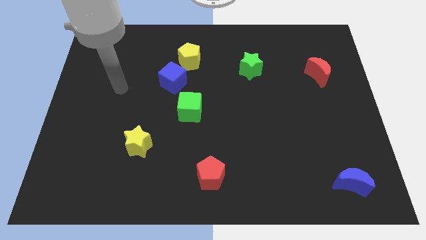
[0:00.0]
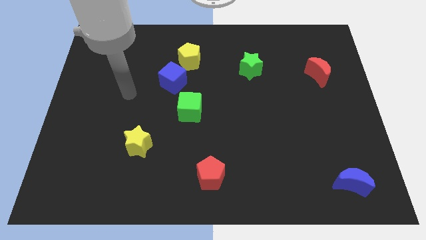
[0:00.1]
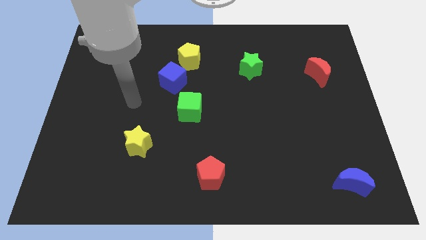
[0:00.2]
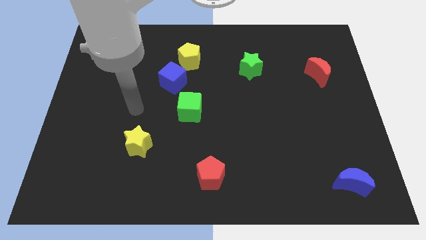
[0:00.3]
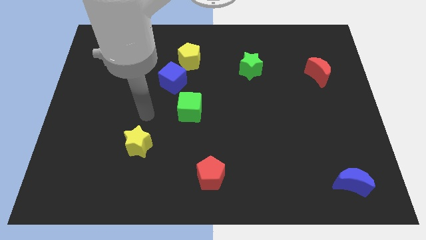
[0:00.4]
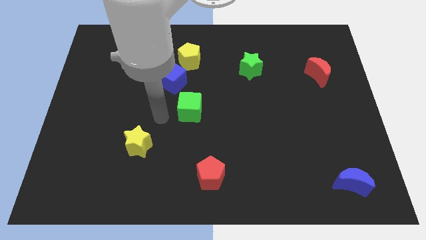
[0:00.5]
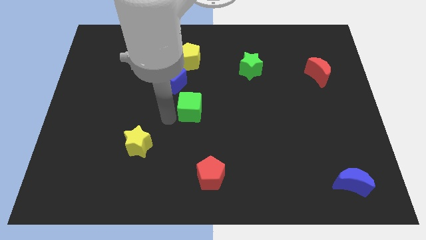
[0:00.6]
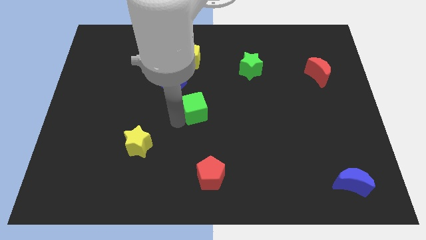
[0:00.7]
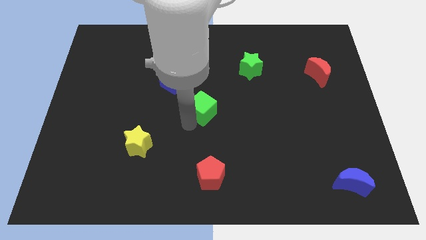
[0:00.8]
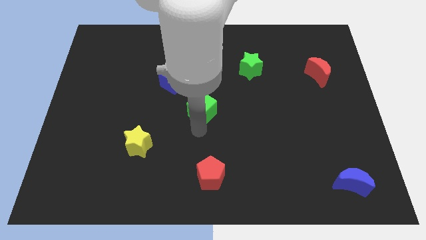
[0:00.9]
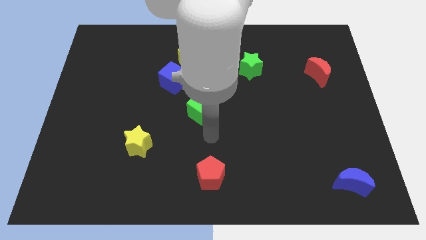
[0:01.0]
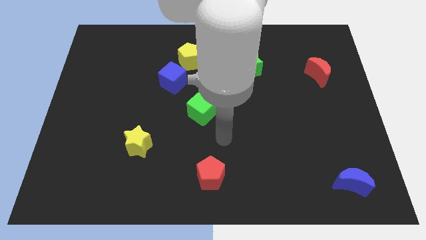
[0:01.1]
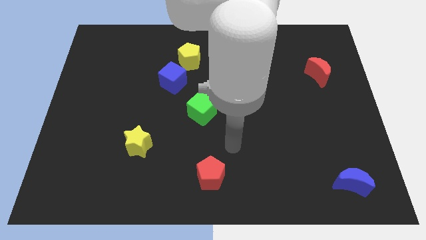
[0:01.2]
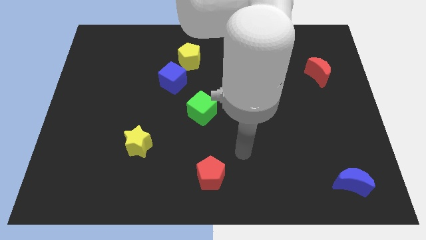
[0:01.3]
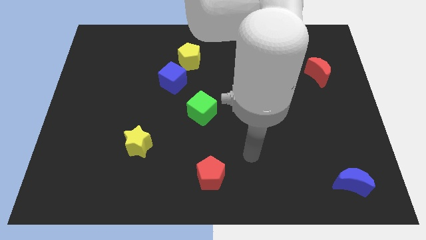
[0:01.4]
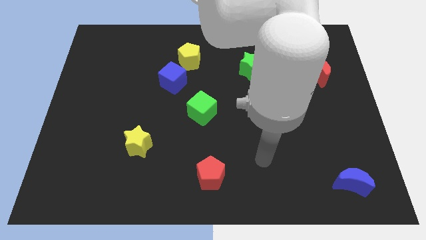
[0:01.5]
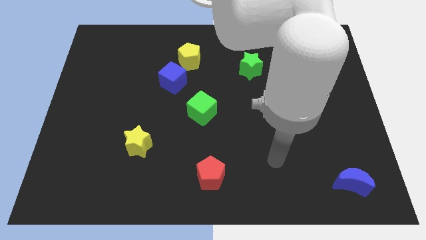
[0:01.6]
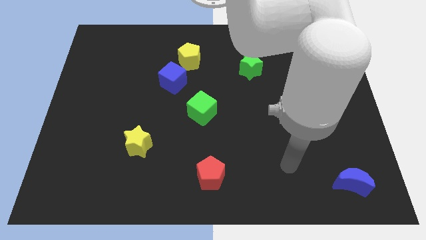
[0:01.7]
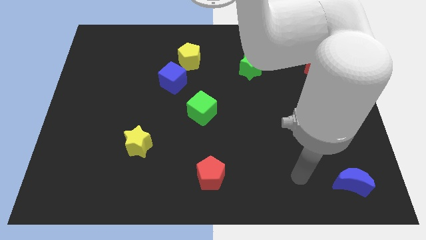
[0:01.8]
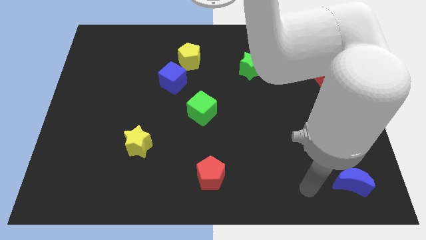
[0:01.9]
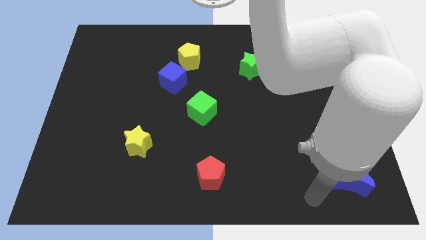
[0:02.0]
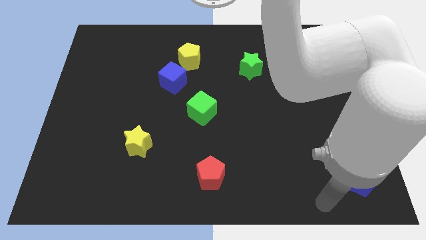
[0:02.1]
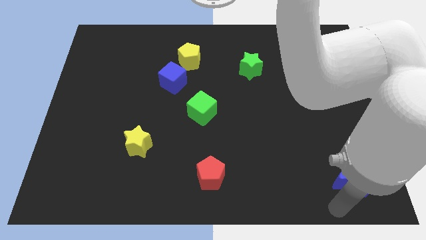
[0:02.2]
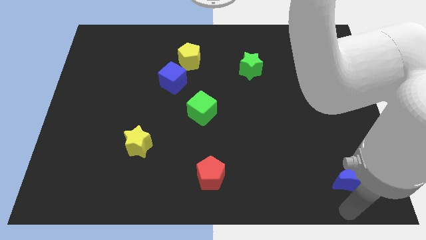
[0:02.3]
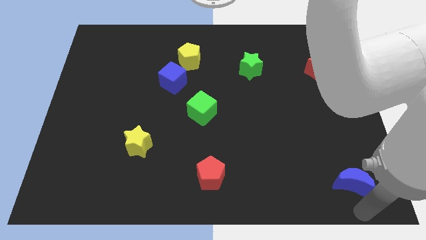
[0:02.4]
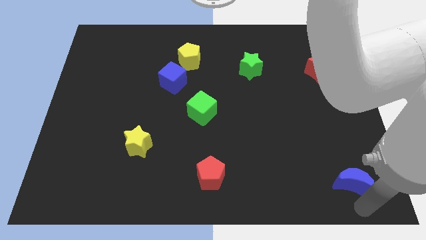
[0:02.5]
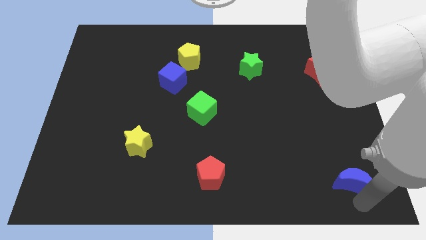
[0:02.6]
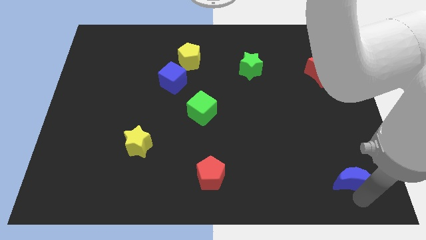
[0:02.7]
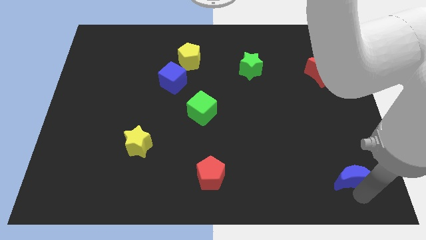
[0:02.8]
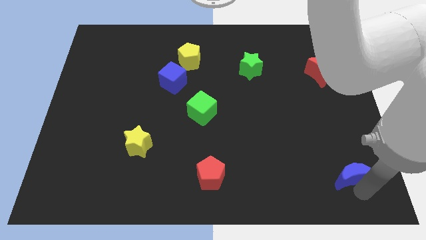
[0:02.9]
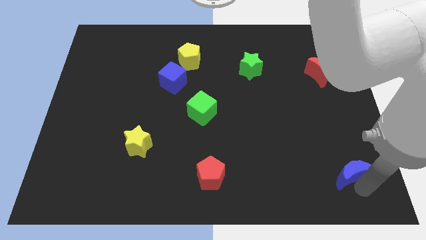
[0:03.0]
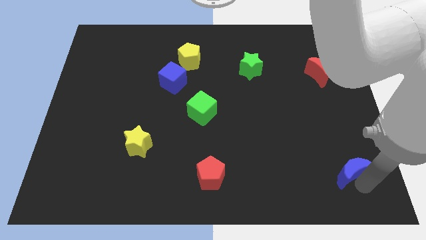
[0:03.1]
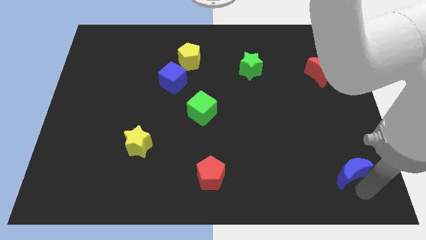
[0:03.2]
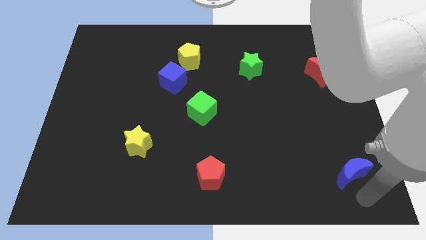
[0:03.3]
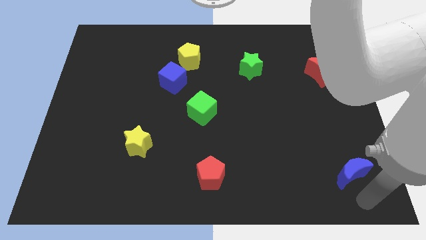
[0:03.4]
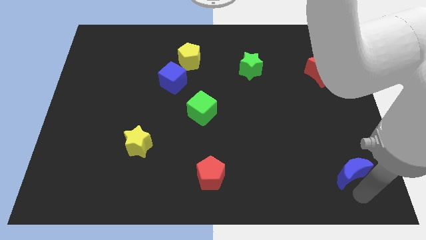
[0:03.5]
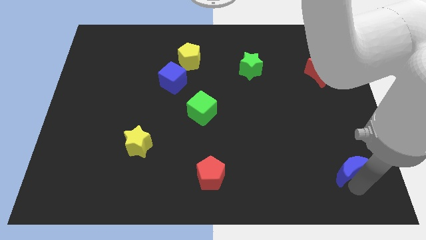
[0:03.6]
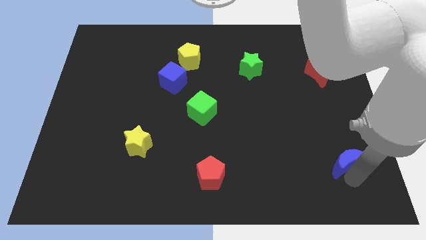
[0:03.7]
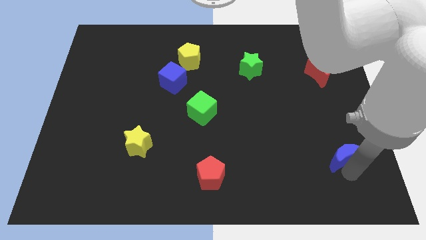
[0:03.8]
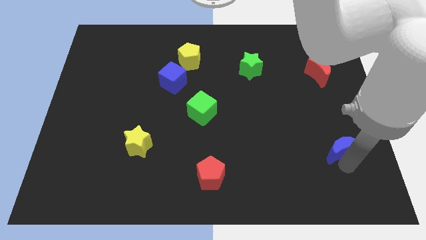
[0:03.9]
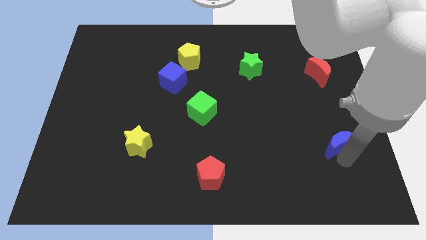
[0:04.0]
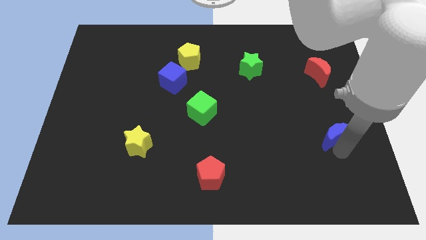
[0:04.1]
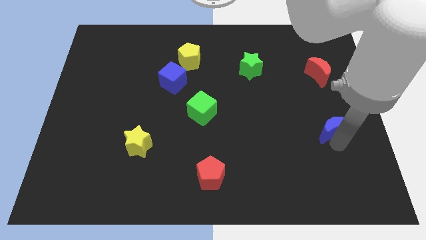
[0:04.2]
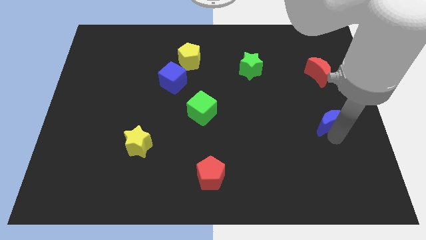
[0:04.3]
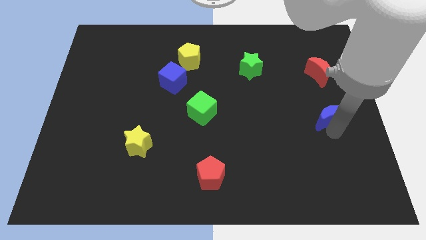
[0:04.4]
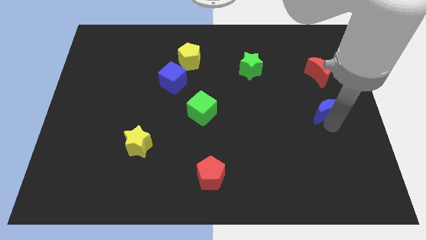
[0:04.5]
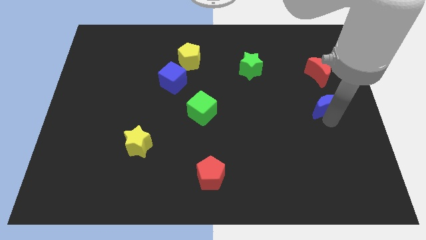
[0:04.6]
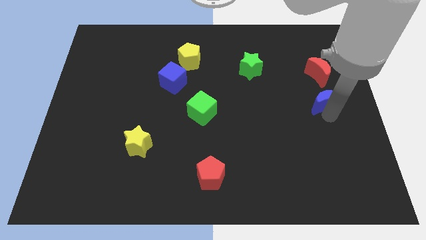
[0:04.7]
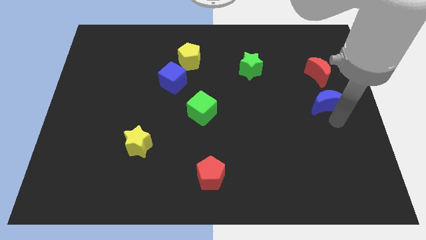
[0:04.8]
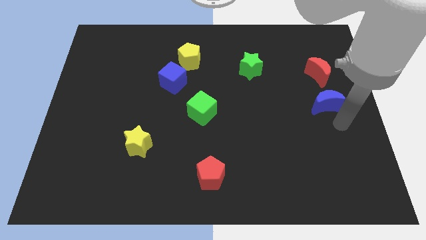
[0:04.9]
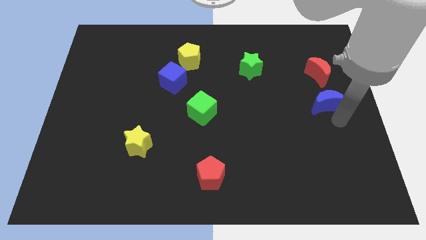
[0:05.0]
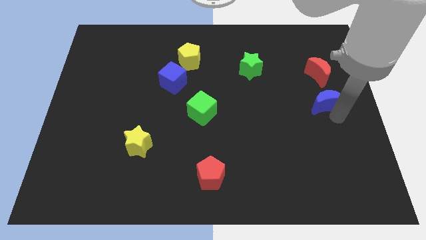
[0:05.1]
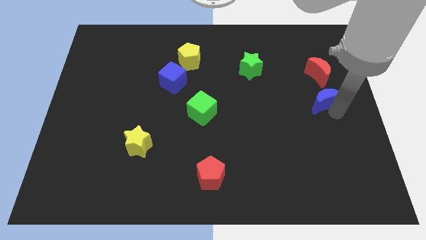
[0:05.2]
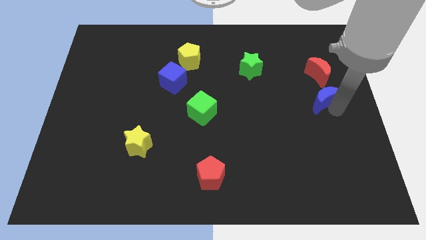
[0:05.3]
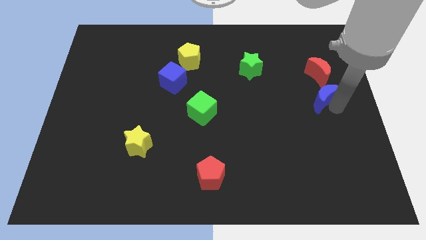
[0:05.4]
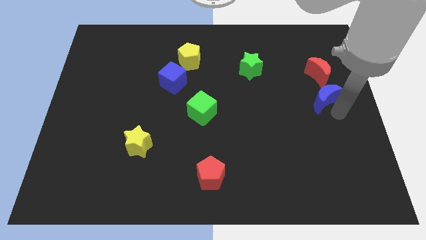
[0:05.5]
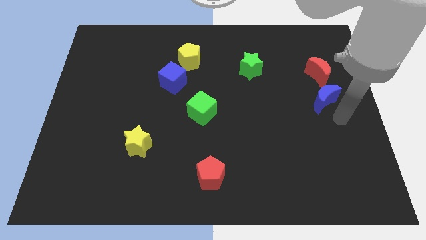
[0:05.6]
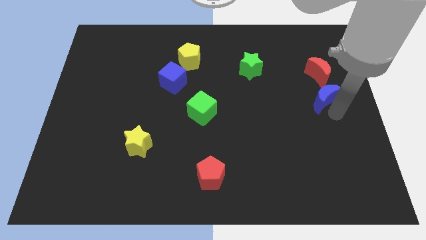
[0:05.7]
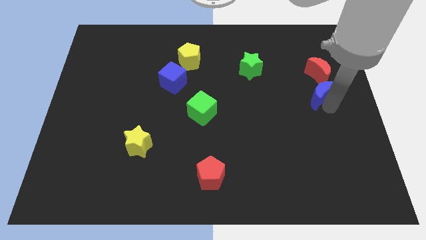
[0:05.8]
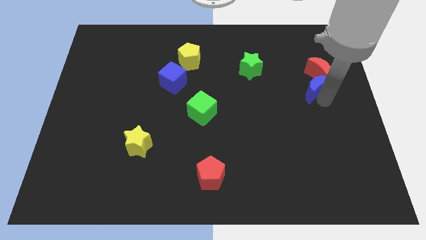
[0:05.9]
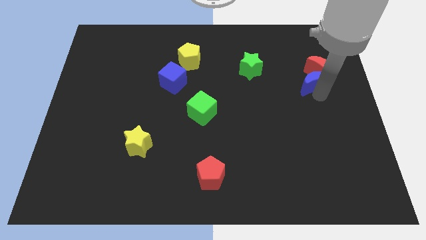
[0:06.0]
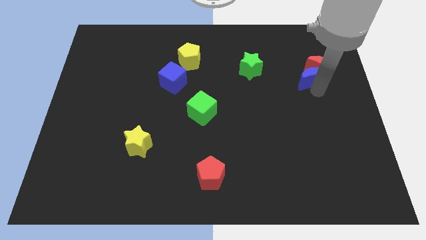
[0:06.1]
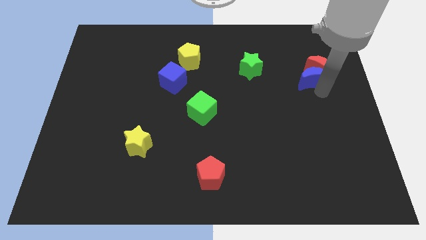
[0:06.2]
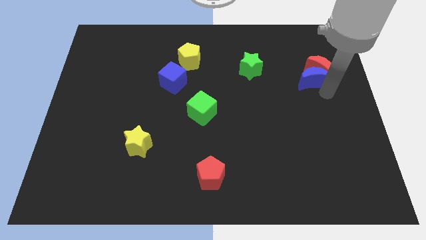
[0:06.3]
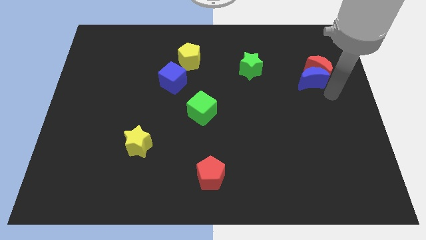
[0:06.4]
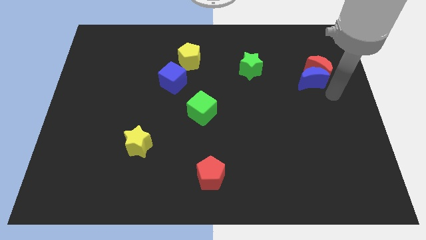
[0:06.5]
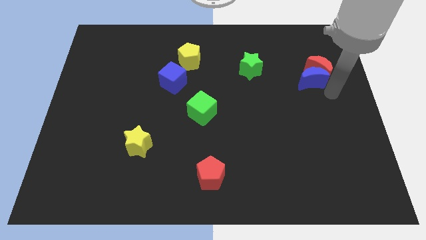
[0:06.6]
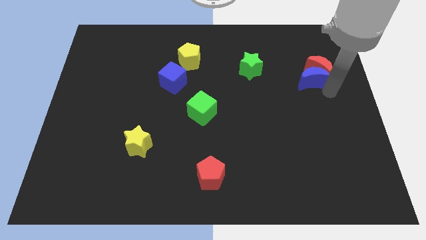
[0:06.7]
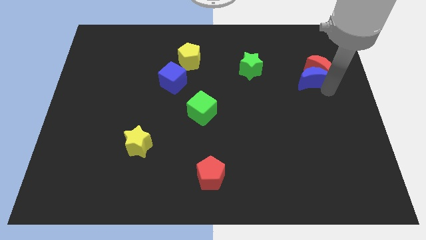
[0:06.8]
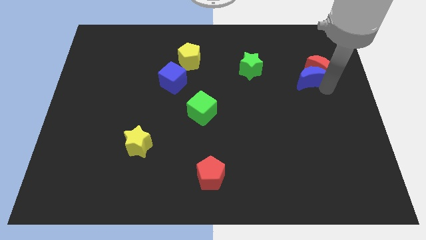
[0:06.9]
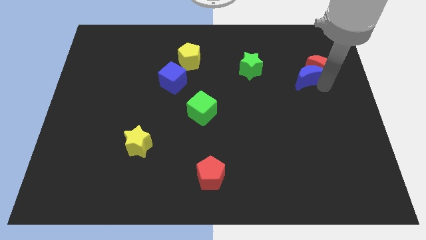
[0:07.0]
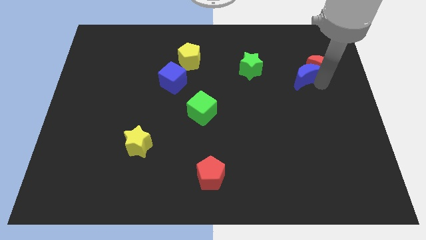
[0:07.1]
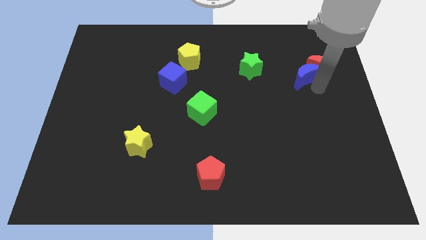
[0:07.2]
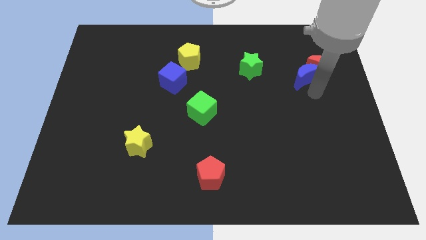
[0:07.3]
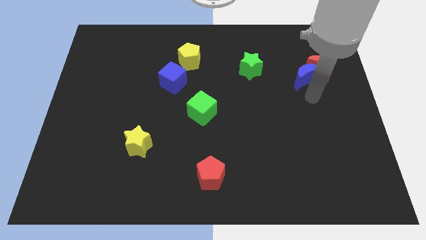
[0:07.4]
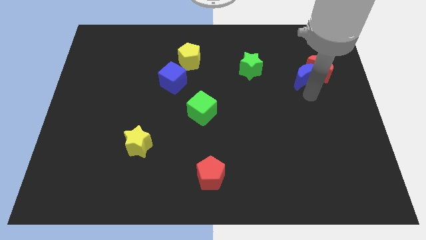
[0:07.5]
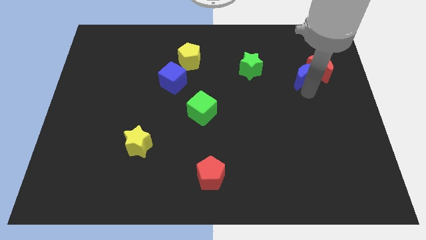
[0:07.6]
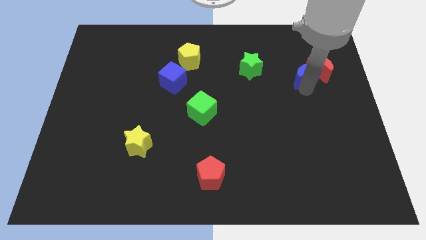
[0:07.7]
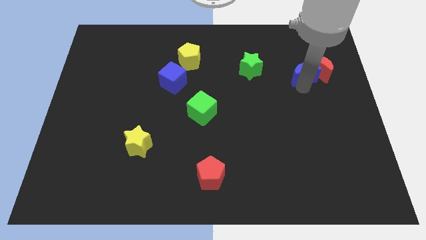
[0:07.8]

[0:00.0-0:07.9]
slide the blue moon diagonally up and to the left of the red moon
